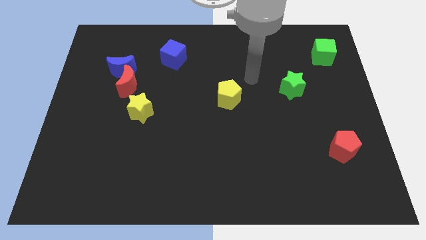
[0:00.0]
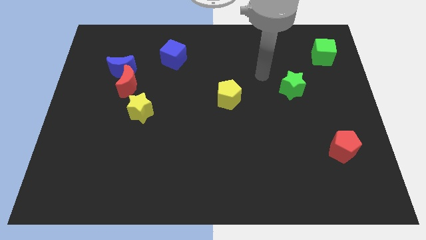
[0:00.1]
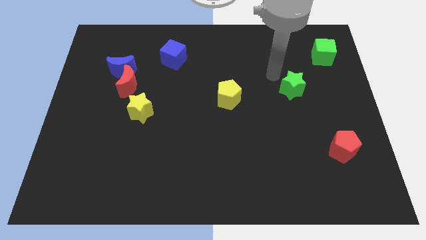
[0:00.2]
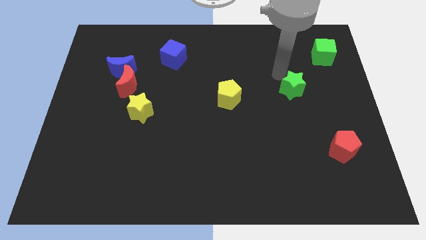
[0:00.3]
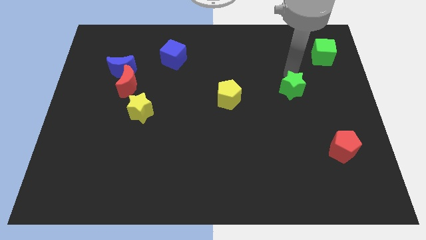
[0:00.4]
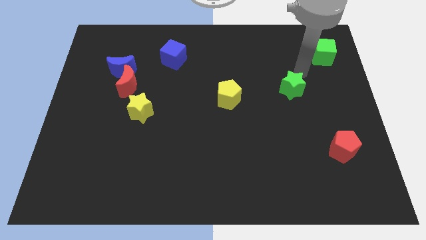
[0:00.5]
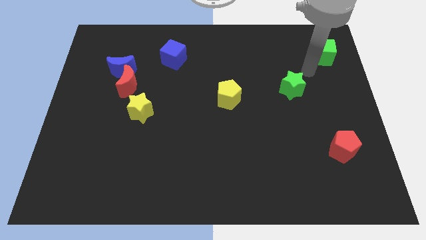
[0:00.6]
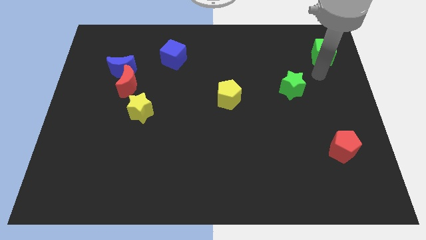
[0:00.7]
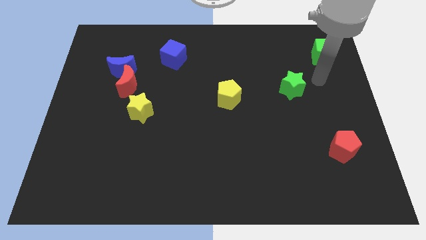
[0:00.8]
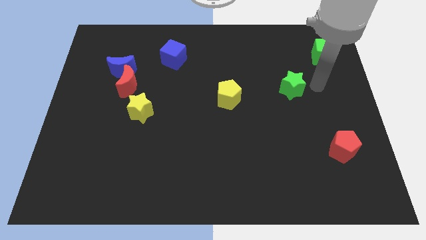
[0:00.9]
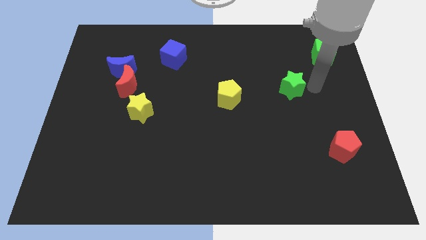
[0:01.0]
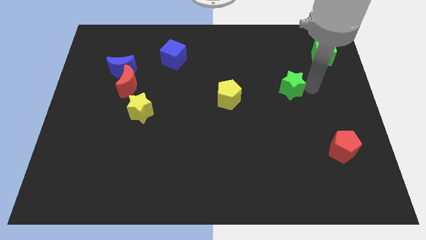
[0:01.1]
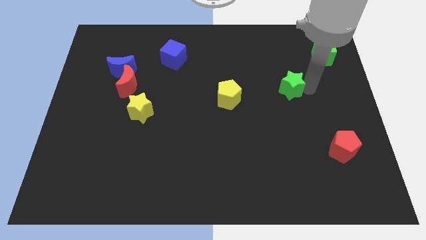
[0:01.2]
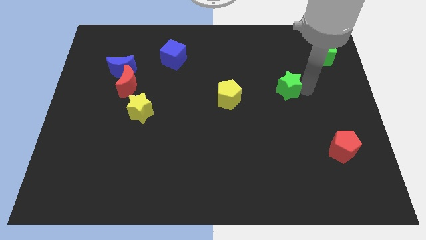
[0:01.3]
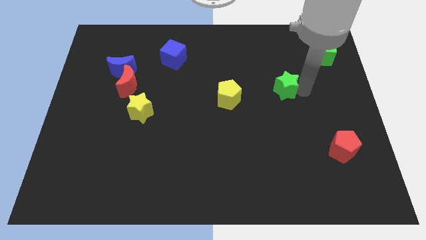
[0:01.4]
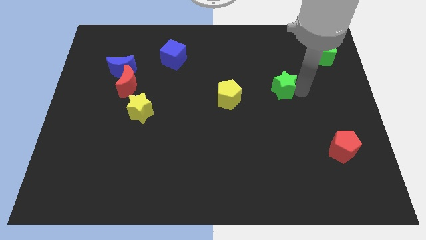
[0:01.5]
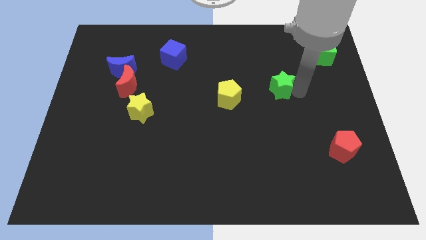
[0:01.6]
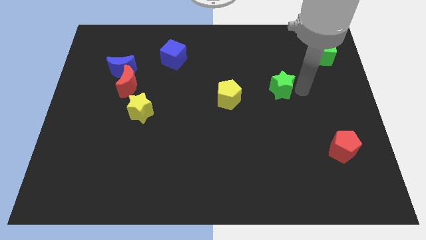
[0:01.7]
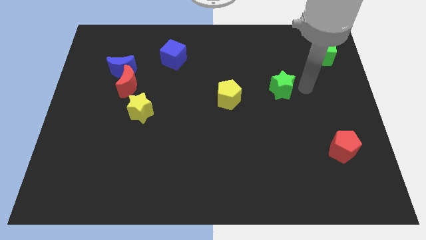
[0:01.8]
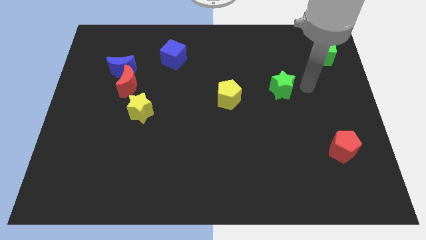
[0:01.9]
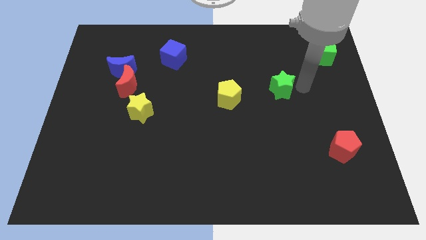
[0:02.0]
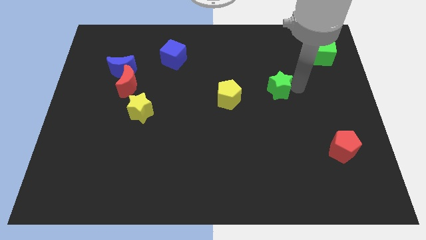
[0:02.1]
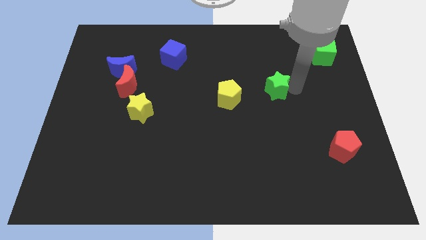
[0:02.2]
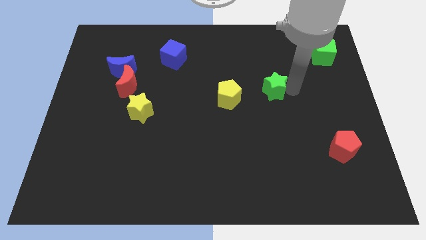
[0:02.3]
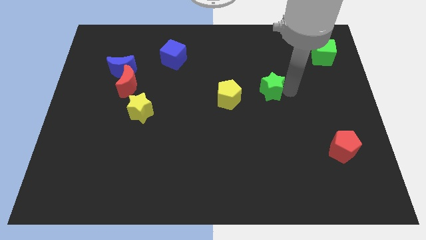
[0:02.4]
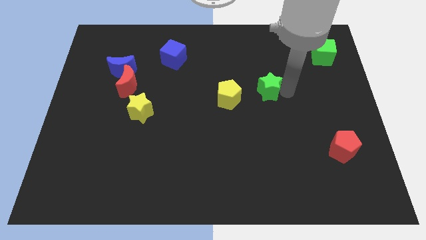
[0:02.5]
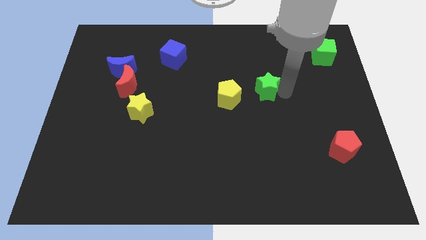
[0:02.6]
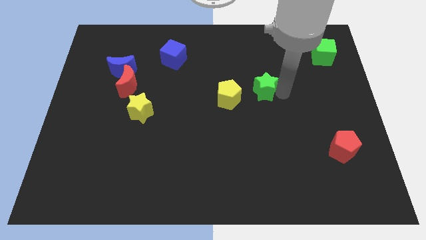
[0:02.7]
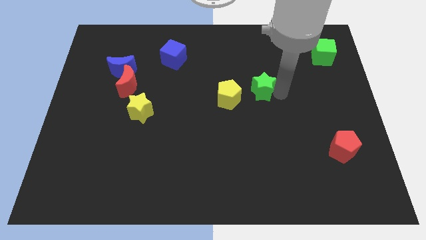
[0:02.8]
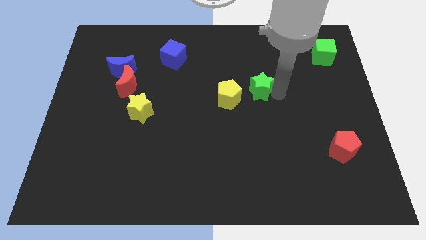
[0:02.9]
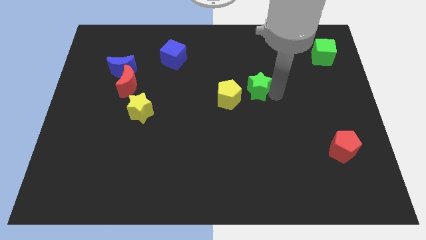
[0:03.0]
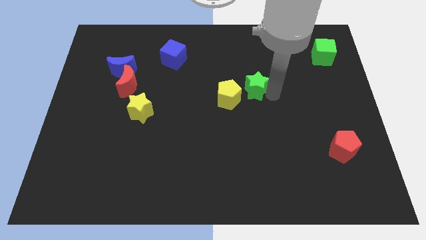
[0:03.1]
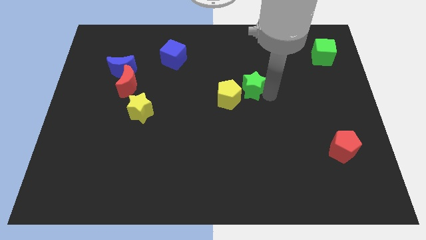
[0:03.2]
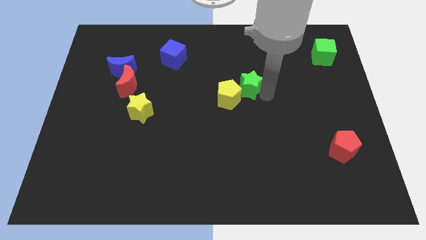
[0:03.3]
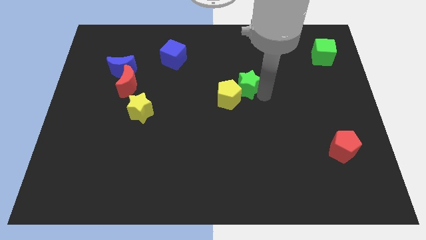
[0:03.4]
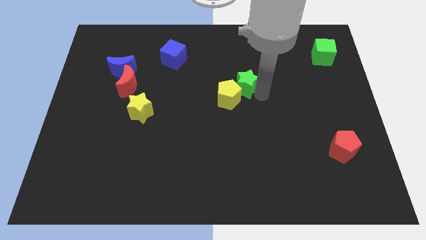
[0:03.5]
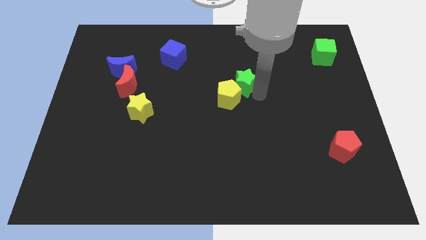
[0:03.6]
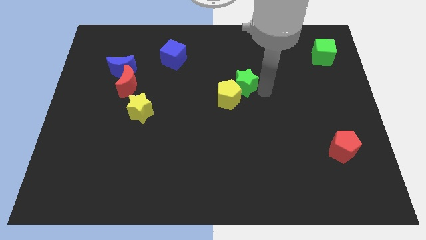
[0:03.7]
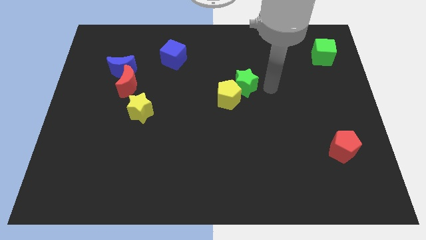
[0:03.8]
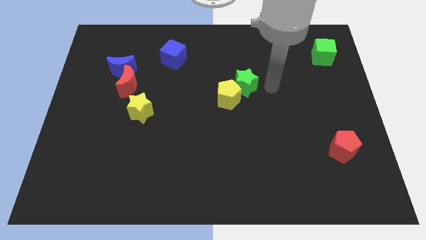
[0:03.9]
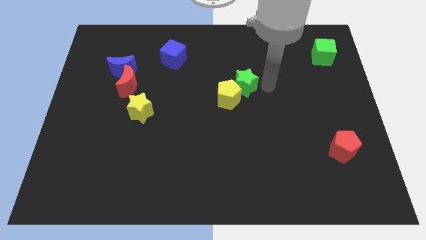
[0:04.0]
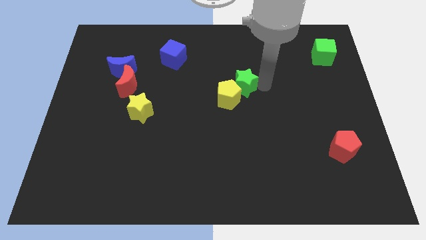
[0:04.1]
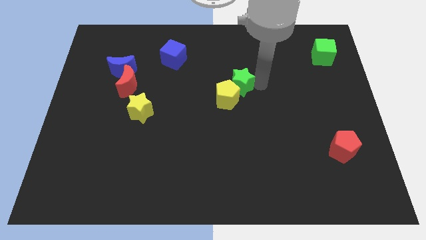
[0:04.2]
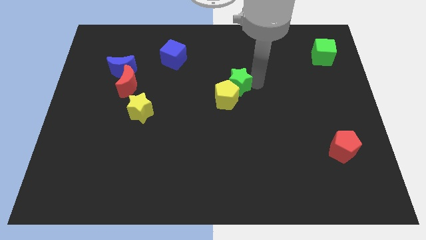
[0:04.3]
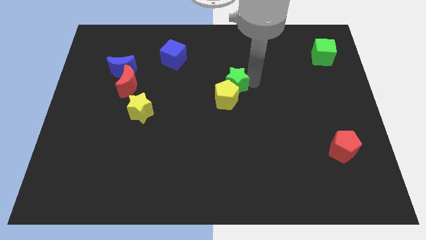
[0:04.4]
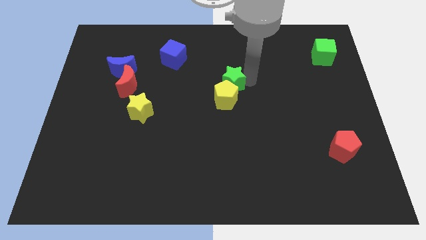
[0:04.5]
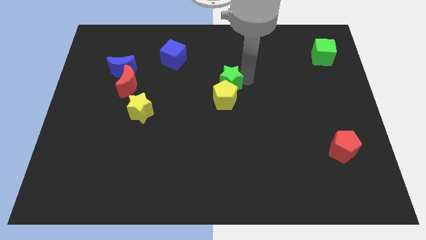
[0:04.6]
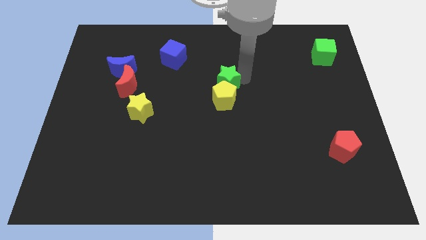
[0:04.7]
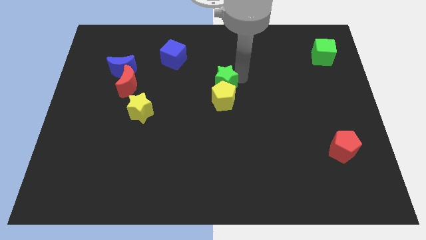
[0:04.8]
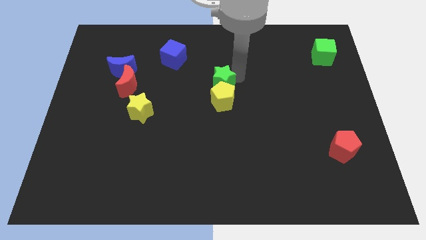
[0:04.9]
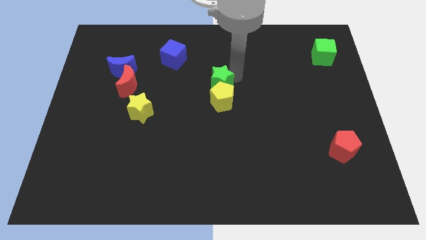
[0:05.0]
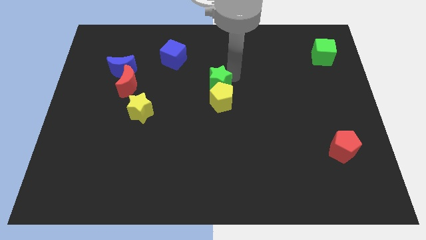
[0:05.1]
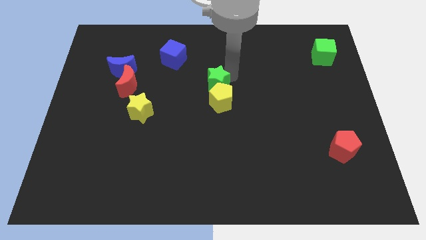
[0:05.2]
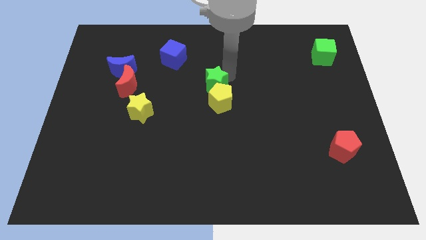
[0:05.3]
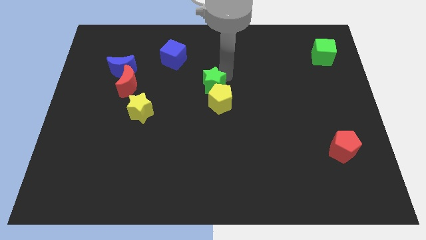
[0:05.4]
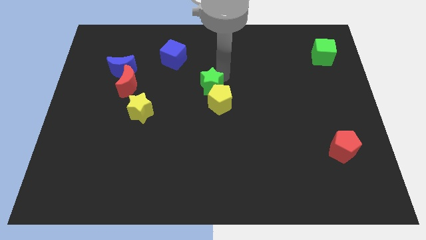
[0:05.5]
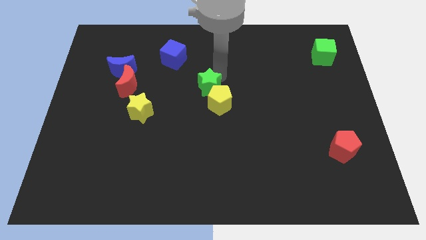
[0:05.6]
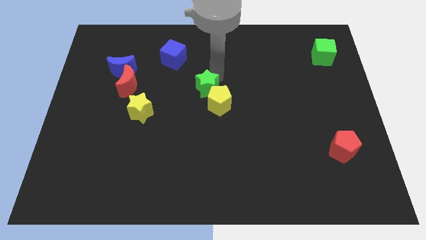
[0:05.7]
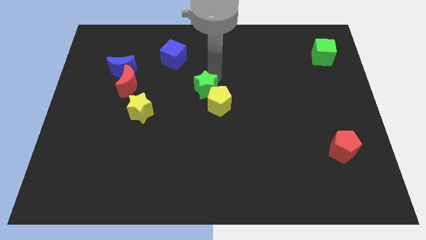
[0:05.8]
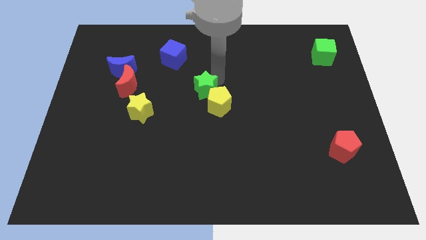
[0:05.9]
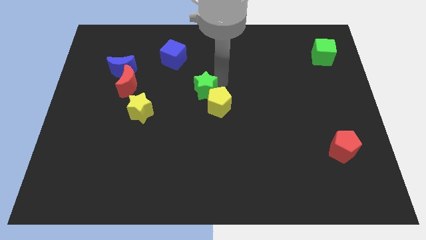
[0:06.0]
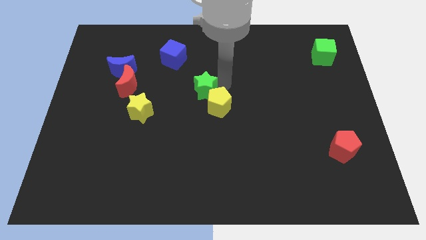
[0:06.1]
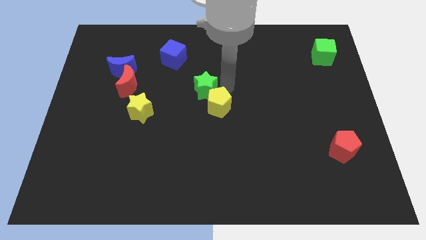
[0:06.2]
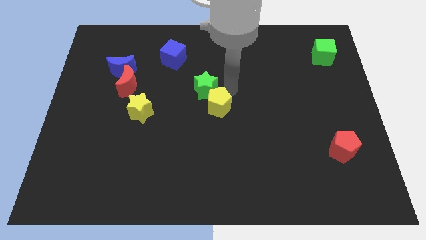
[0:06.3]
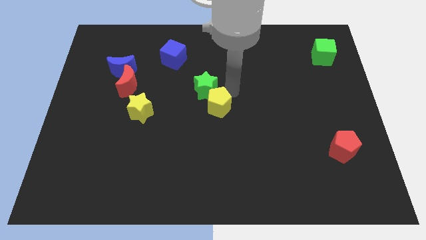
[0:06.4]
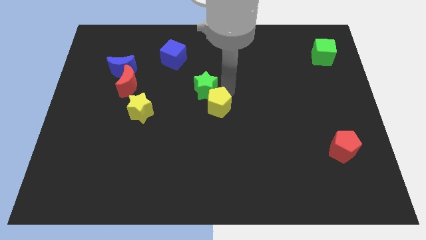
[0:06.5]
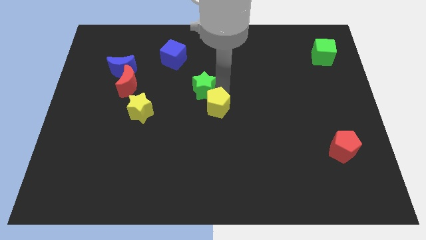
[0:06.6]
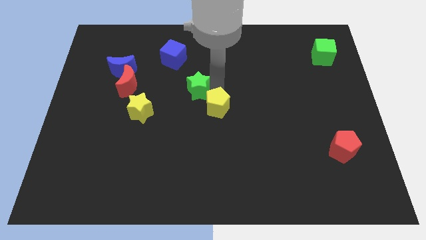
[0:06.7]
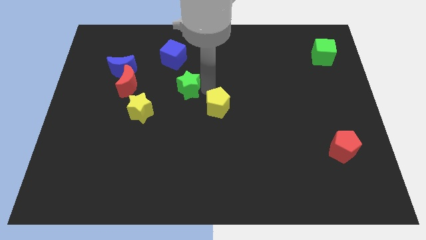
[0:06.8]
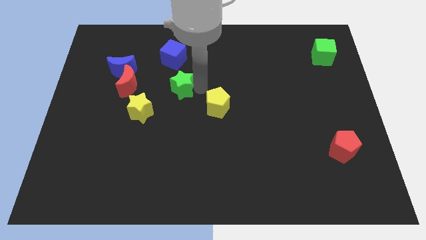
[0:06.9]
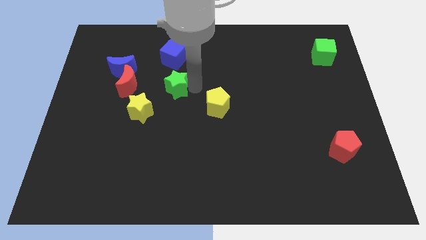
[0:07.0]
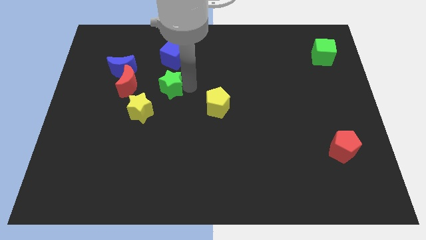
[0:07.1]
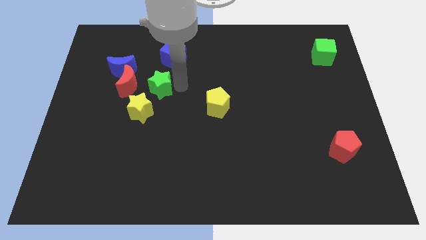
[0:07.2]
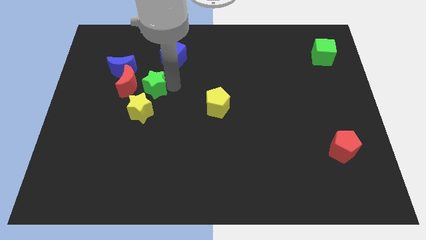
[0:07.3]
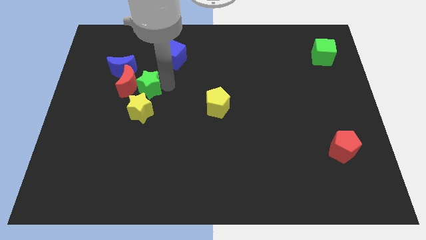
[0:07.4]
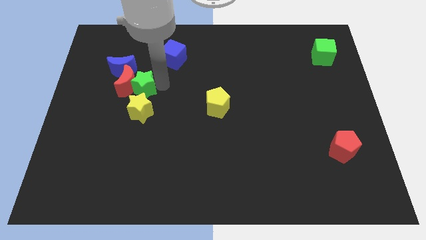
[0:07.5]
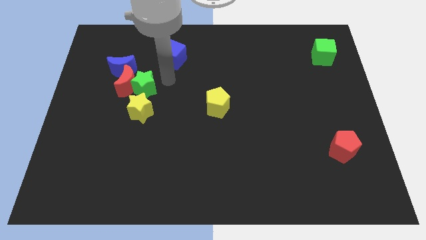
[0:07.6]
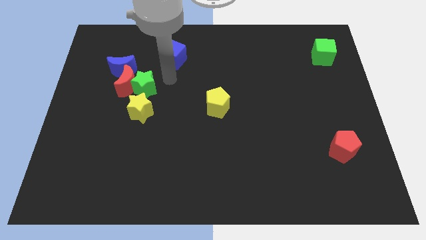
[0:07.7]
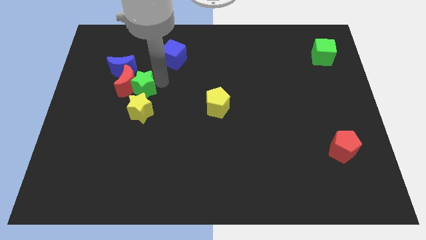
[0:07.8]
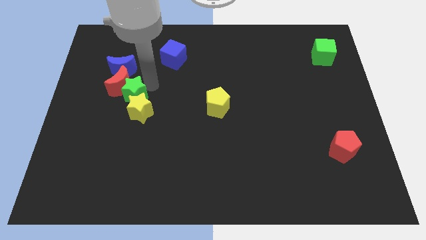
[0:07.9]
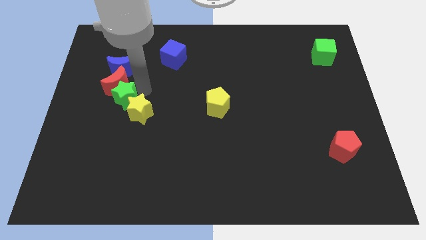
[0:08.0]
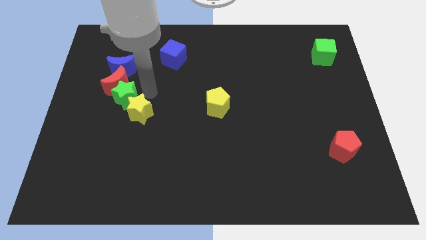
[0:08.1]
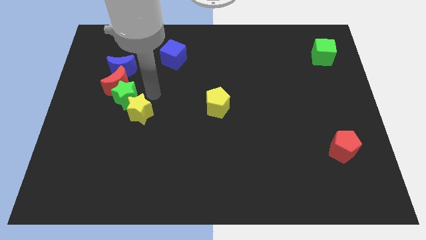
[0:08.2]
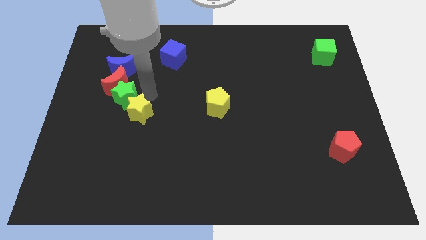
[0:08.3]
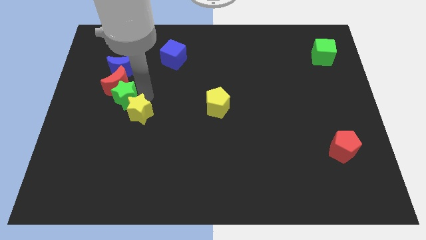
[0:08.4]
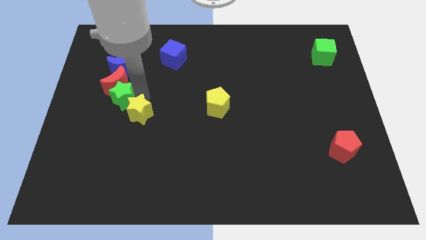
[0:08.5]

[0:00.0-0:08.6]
move the green star to the bottom left side of the red moon
